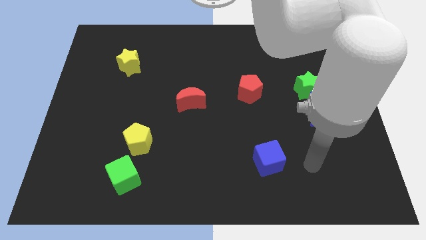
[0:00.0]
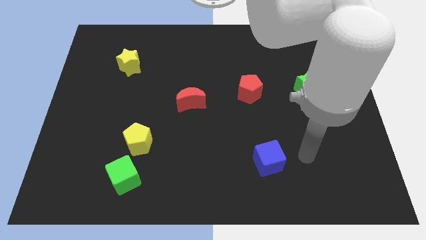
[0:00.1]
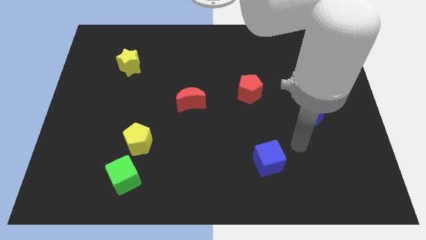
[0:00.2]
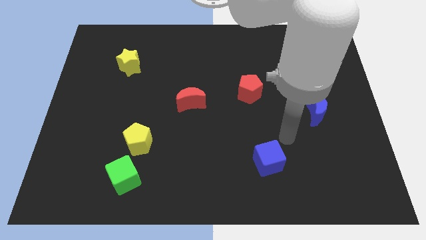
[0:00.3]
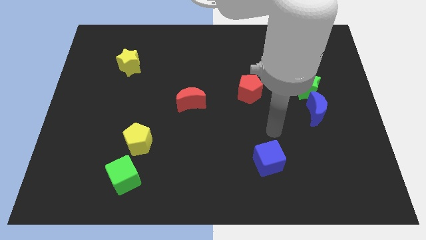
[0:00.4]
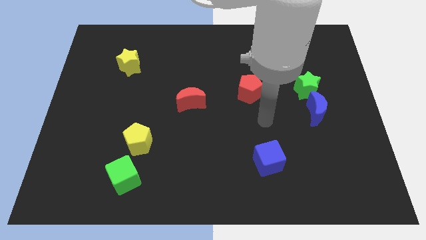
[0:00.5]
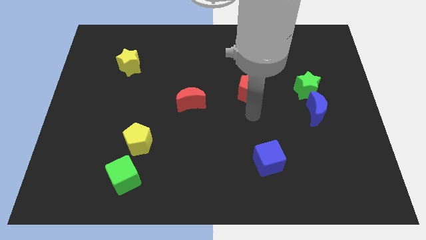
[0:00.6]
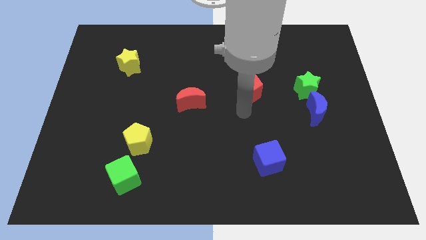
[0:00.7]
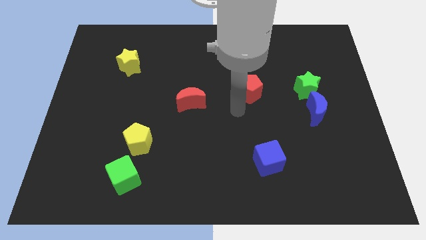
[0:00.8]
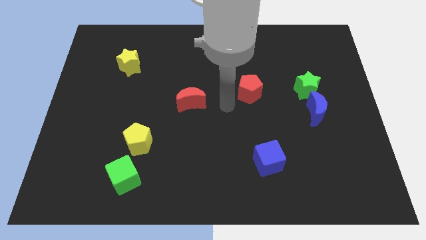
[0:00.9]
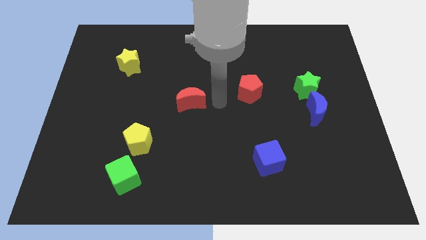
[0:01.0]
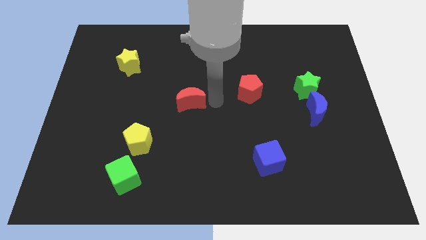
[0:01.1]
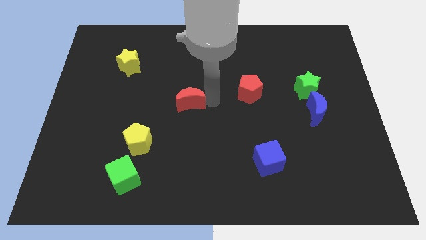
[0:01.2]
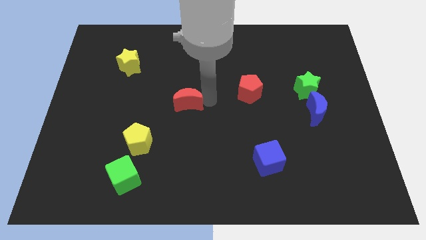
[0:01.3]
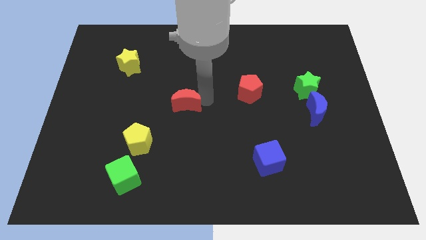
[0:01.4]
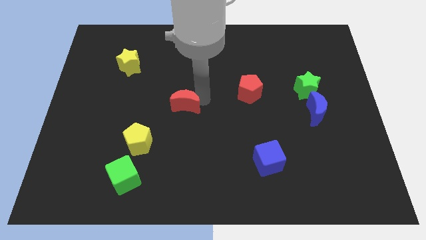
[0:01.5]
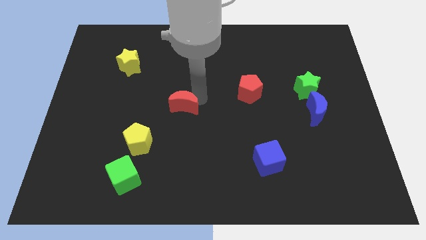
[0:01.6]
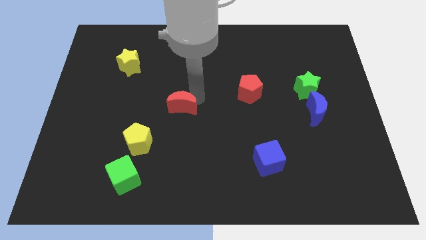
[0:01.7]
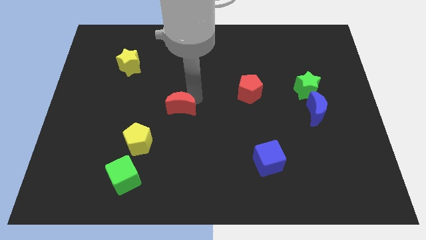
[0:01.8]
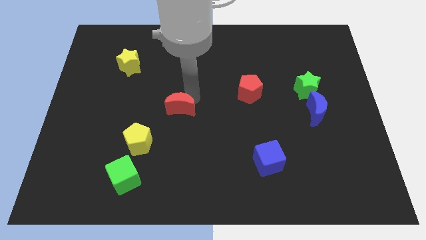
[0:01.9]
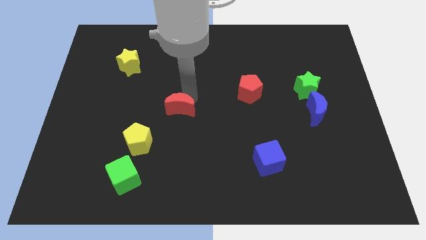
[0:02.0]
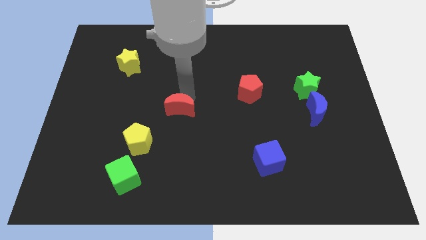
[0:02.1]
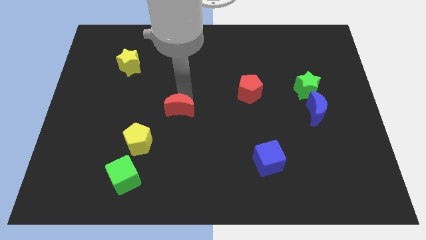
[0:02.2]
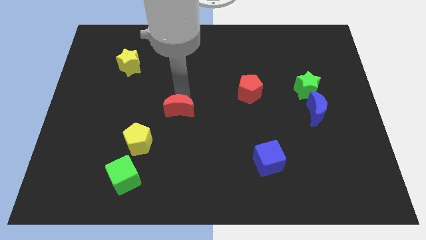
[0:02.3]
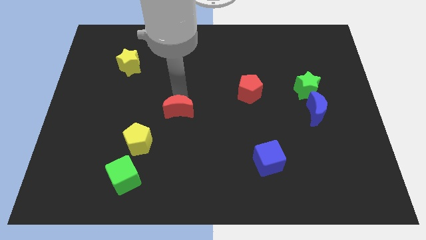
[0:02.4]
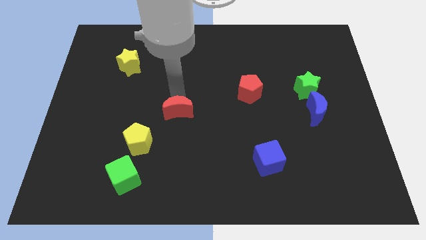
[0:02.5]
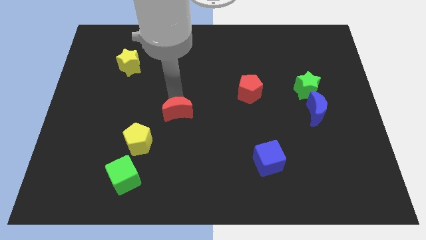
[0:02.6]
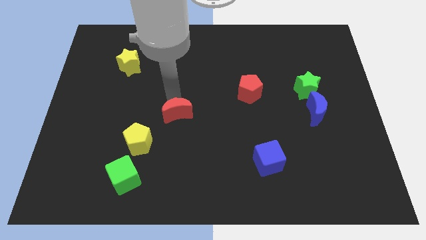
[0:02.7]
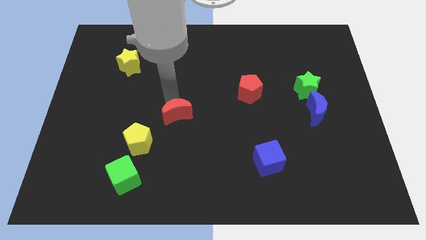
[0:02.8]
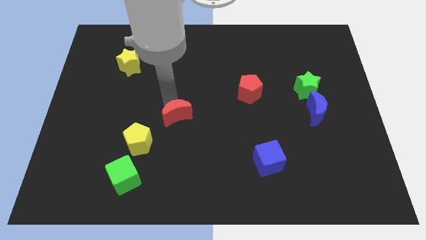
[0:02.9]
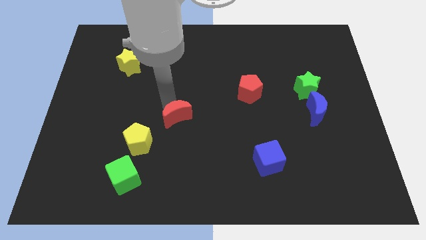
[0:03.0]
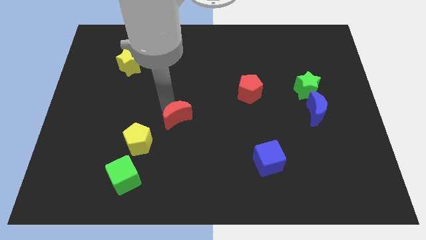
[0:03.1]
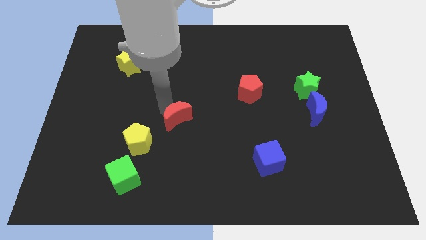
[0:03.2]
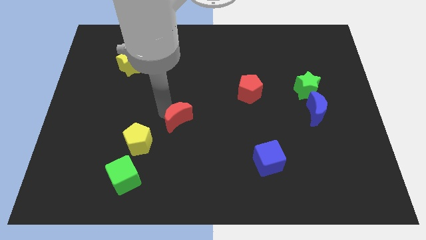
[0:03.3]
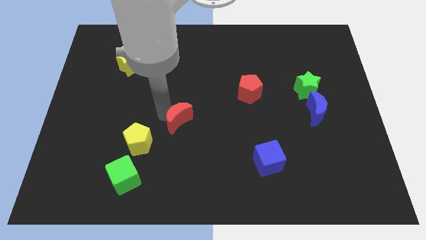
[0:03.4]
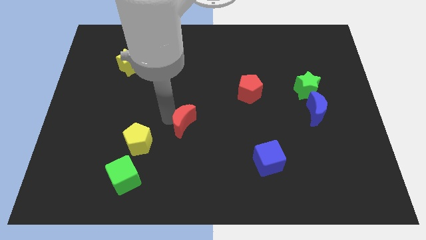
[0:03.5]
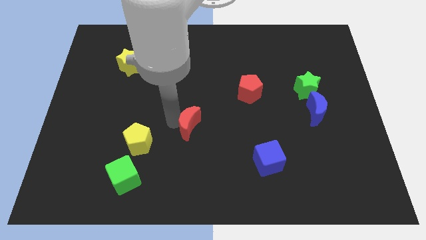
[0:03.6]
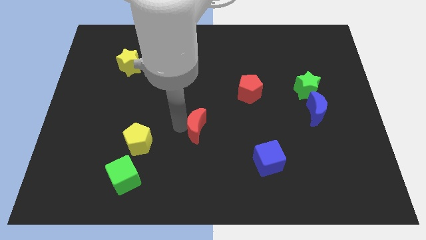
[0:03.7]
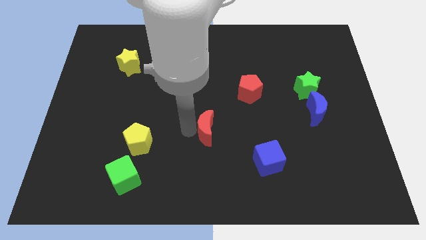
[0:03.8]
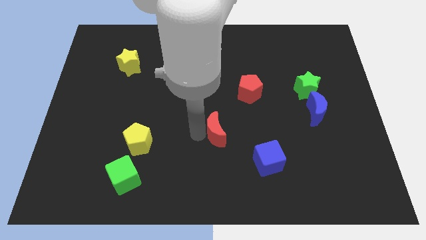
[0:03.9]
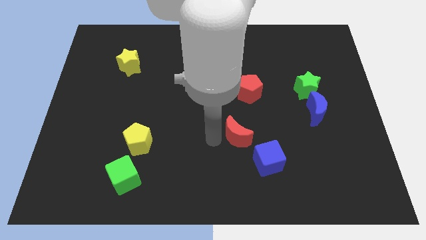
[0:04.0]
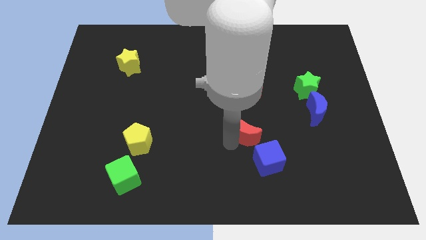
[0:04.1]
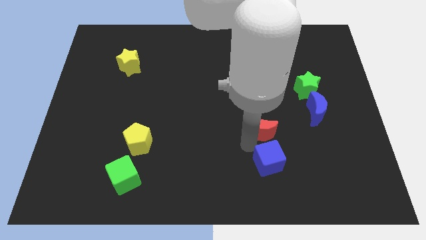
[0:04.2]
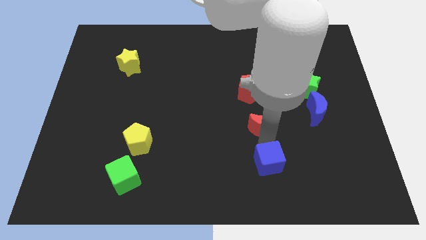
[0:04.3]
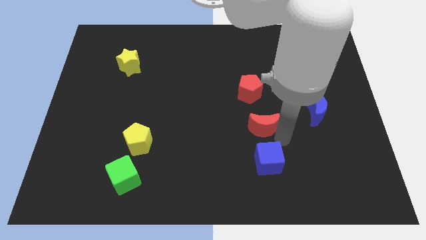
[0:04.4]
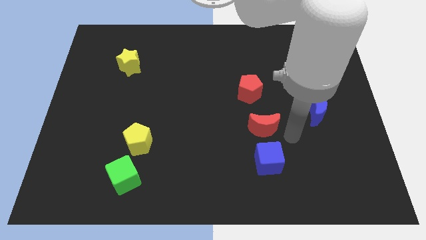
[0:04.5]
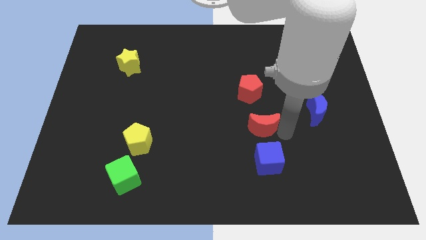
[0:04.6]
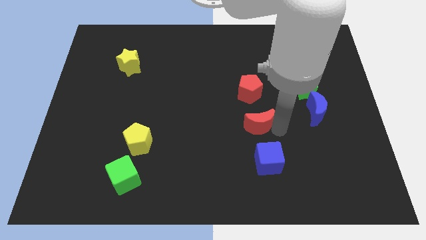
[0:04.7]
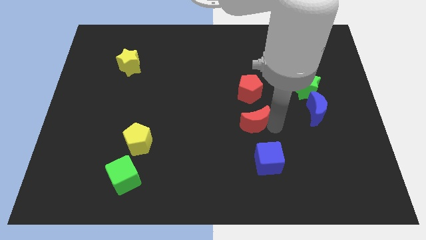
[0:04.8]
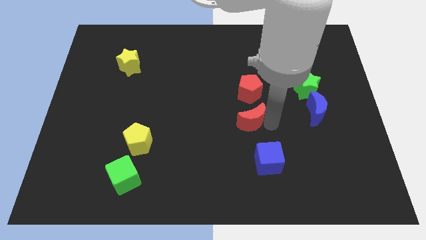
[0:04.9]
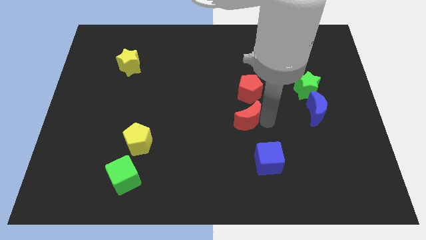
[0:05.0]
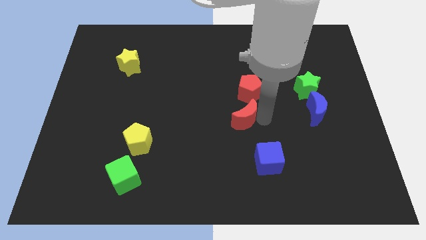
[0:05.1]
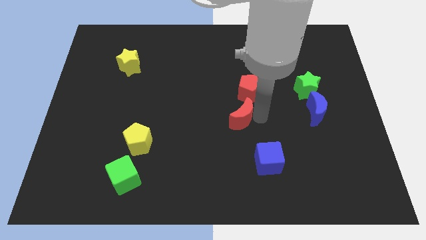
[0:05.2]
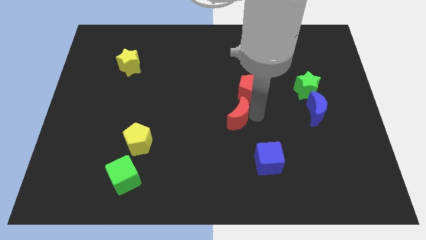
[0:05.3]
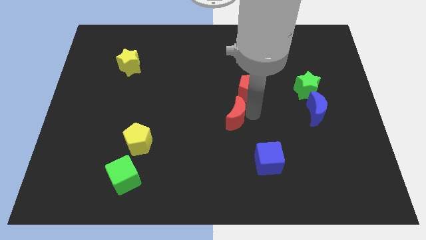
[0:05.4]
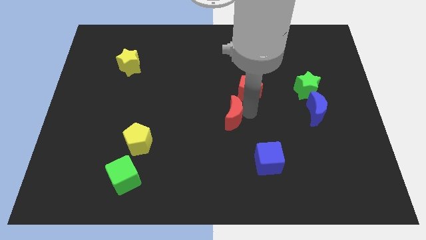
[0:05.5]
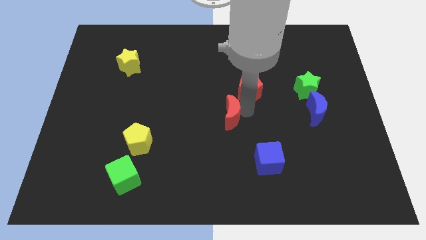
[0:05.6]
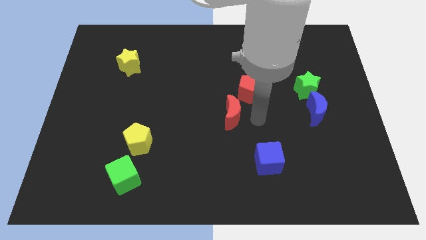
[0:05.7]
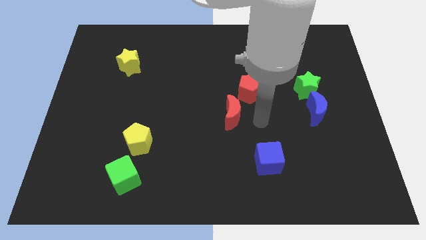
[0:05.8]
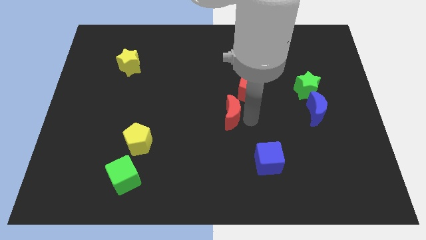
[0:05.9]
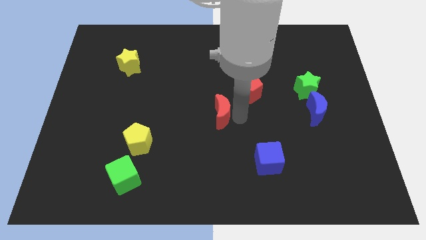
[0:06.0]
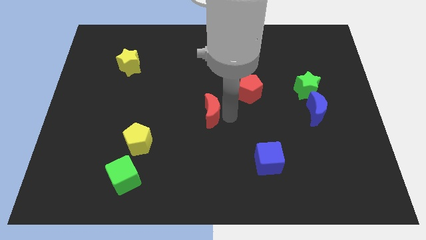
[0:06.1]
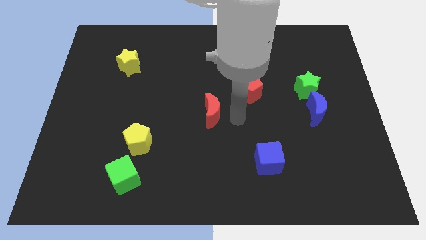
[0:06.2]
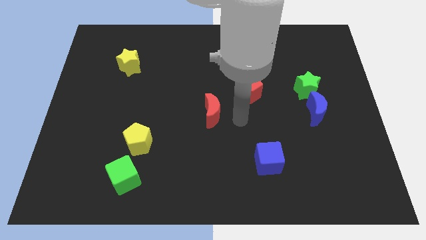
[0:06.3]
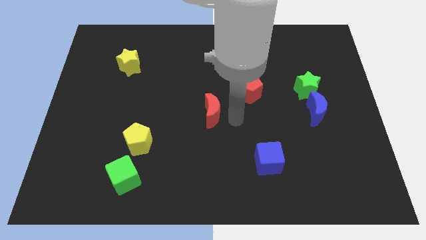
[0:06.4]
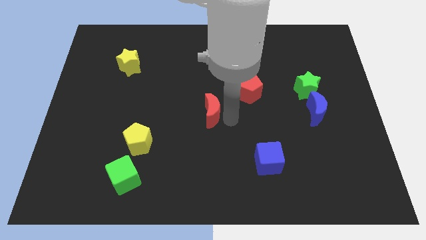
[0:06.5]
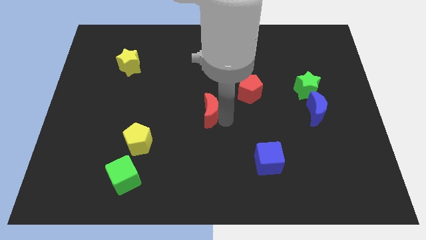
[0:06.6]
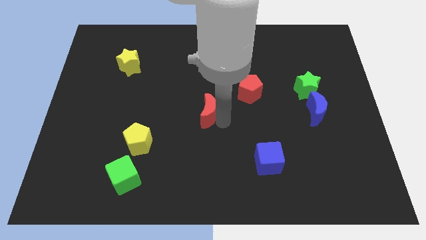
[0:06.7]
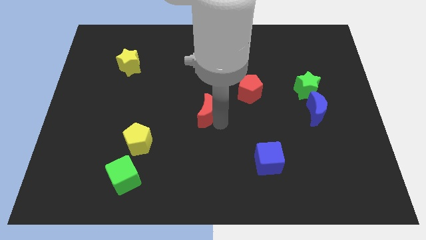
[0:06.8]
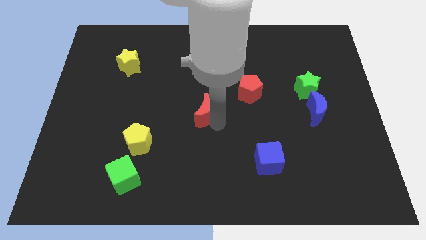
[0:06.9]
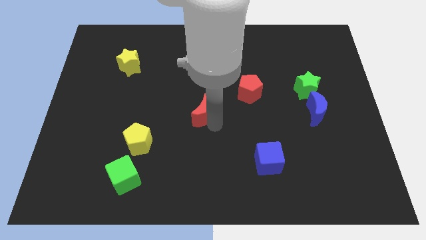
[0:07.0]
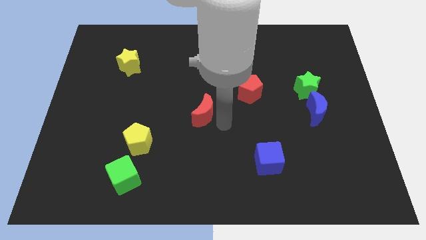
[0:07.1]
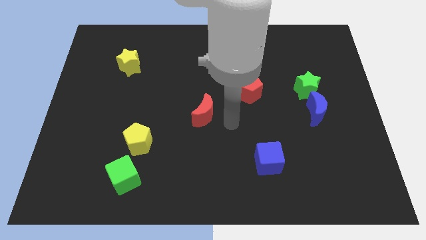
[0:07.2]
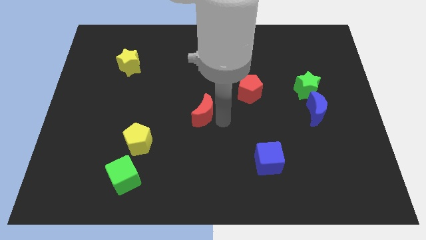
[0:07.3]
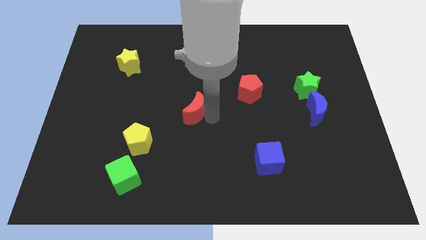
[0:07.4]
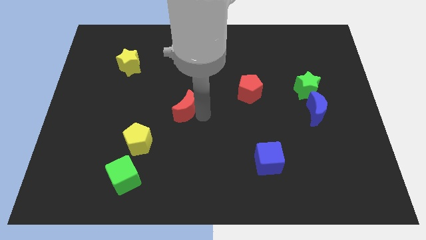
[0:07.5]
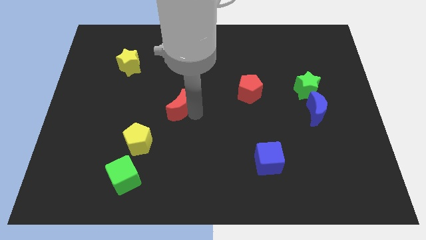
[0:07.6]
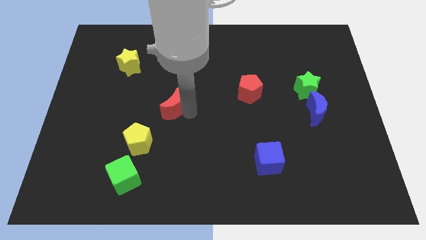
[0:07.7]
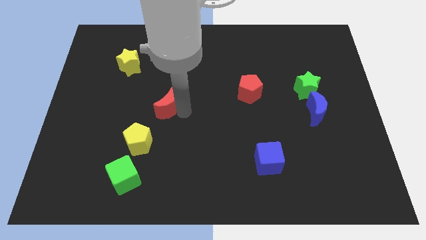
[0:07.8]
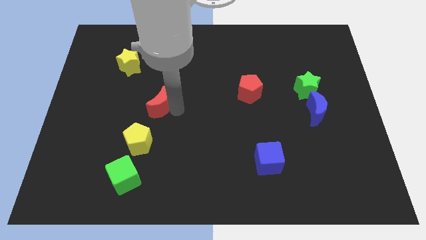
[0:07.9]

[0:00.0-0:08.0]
move the red moon left somewhat
